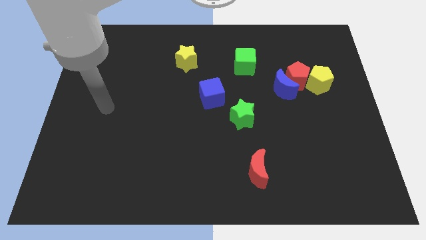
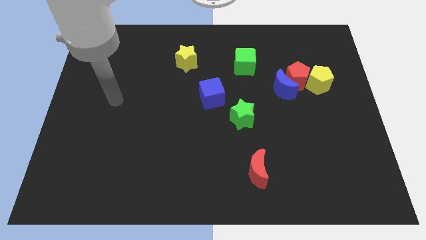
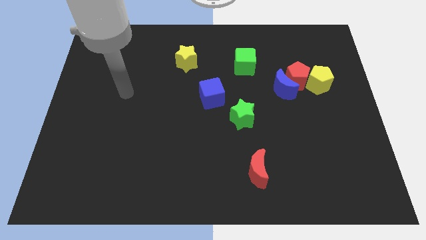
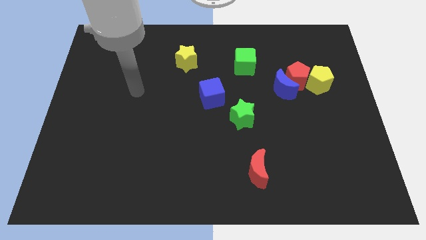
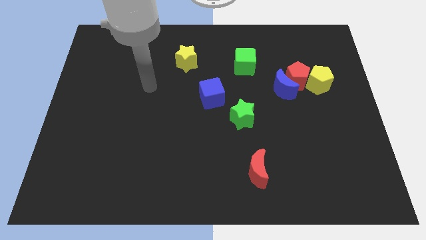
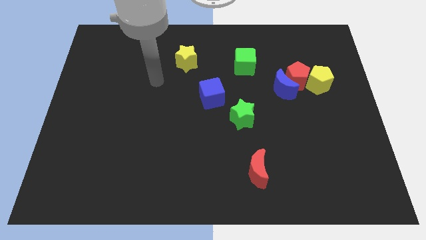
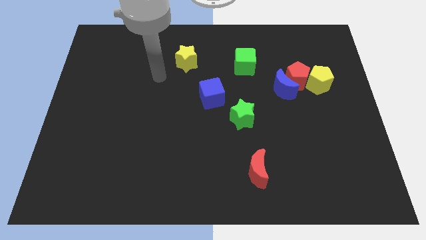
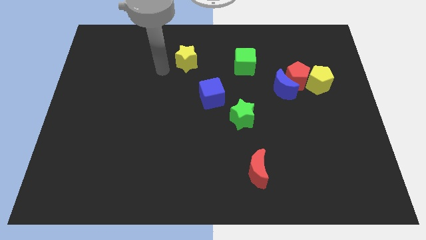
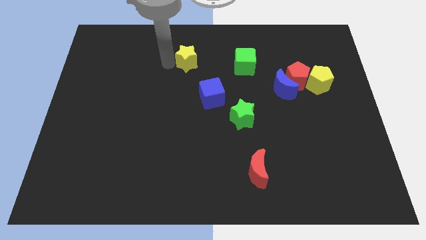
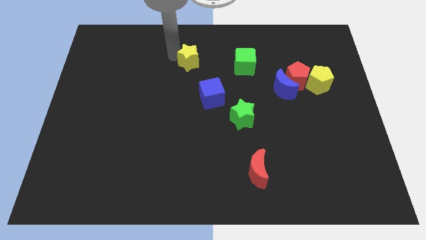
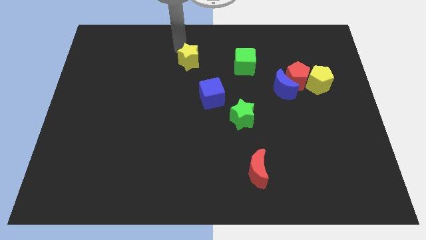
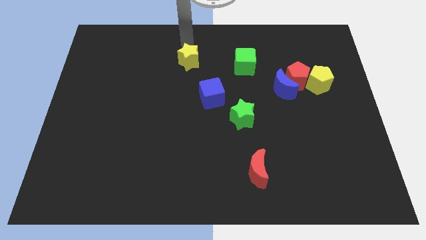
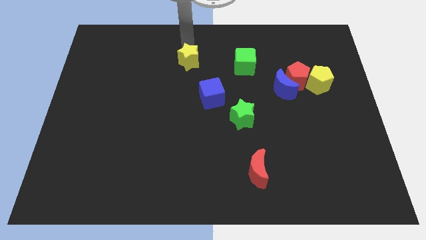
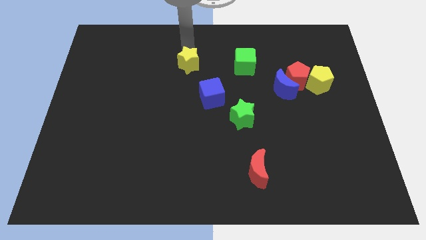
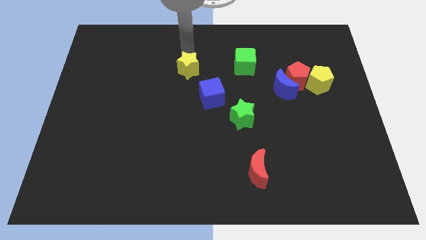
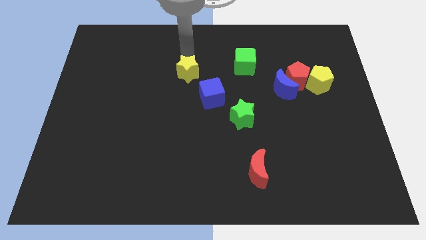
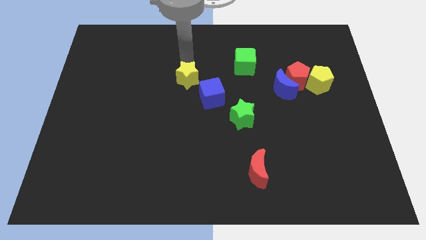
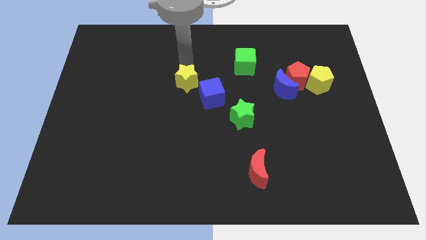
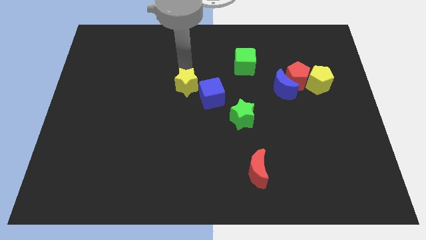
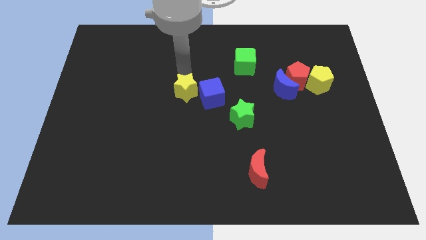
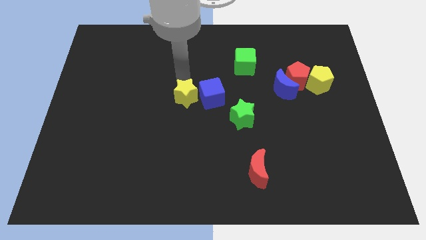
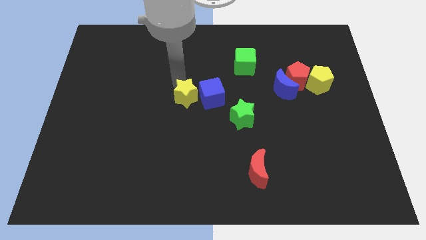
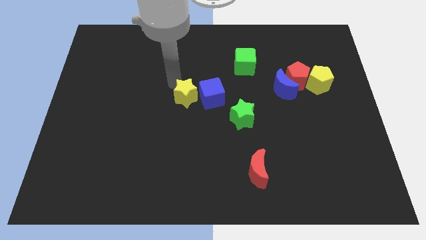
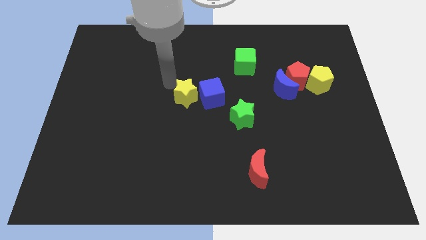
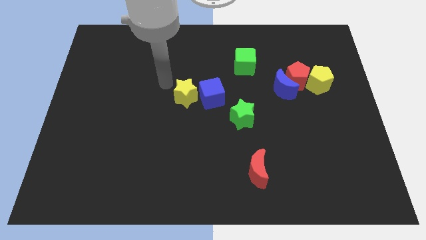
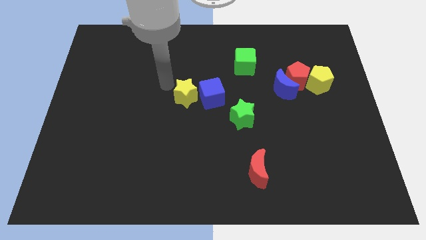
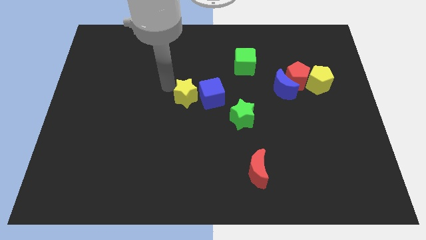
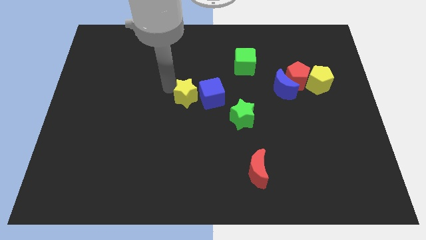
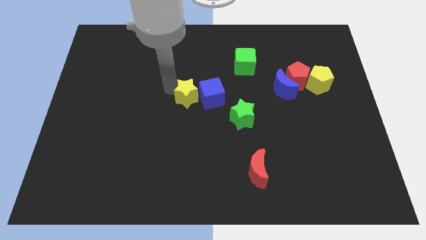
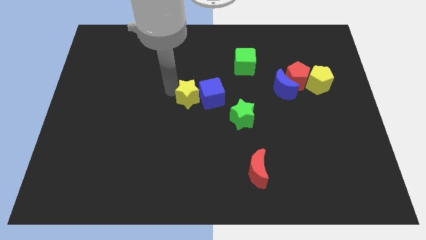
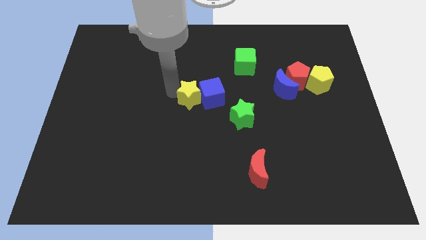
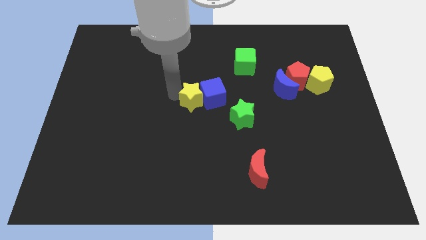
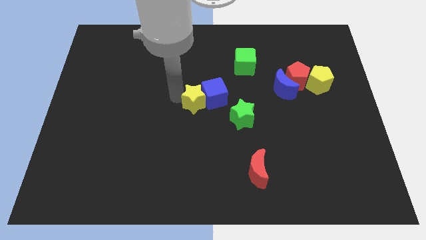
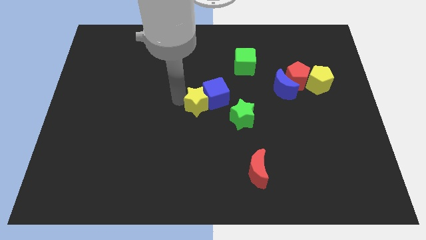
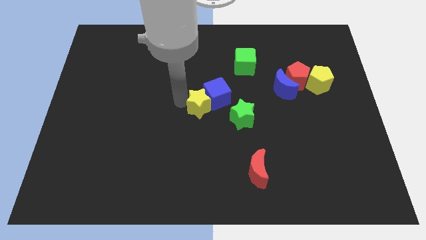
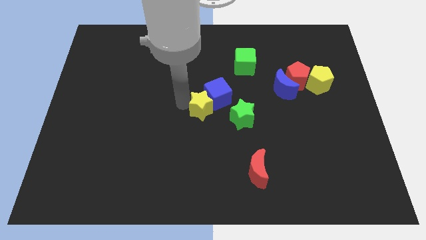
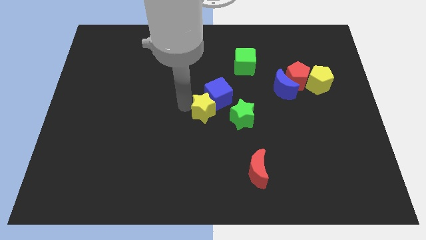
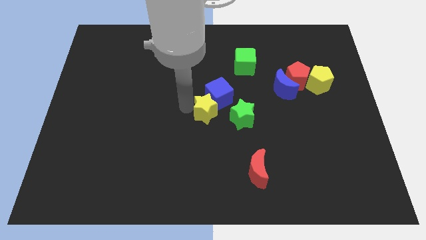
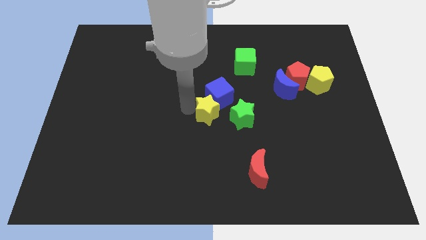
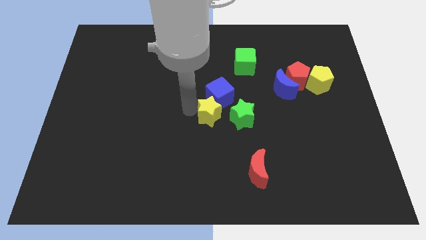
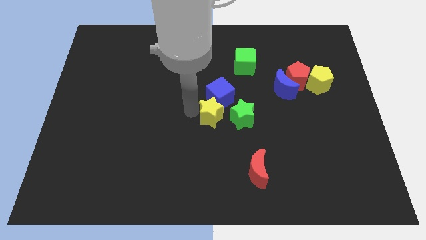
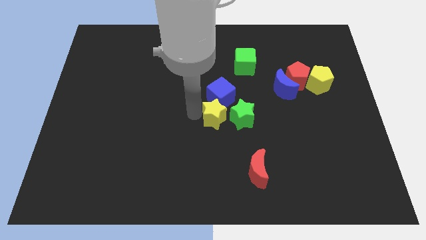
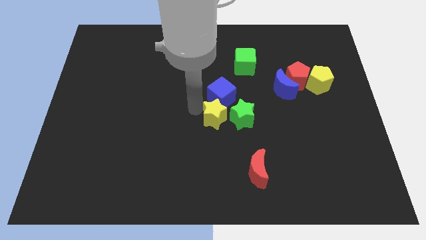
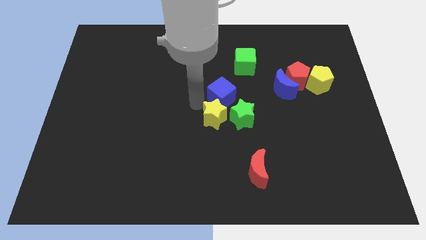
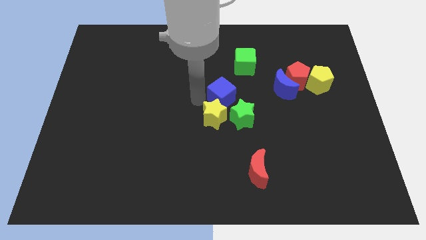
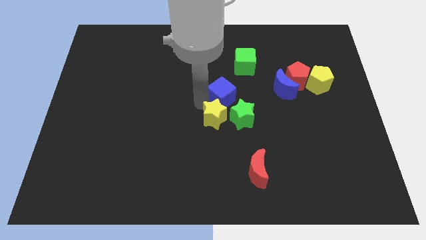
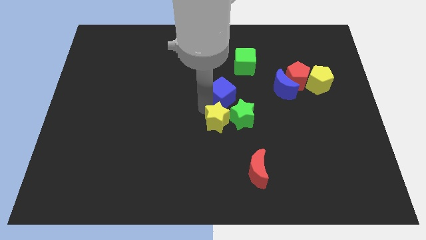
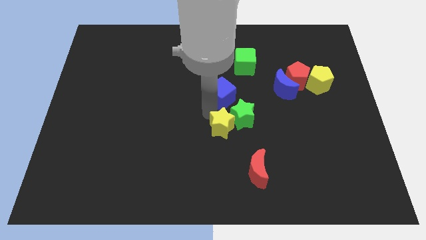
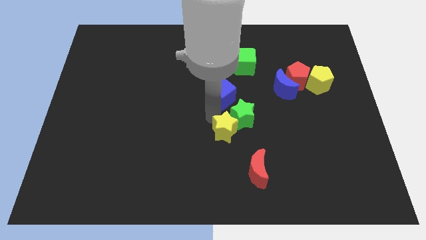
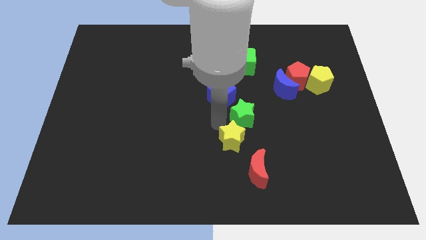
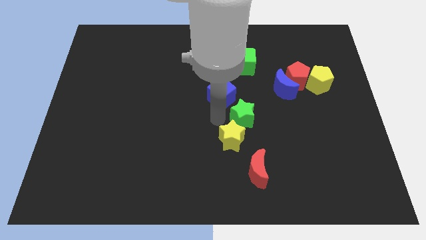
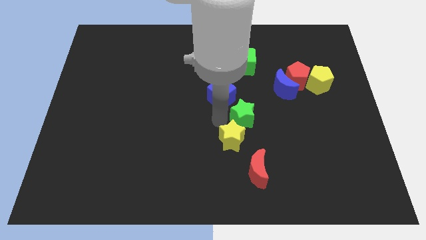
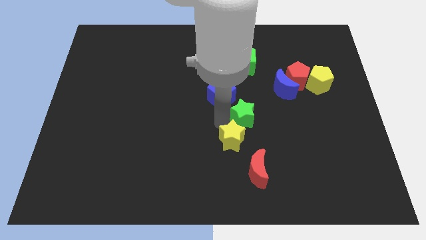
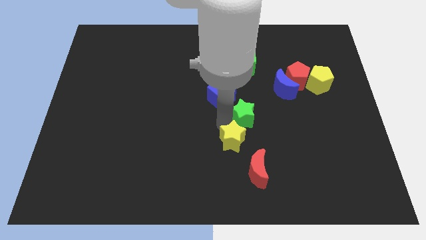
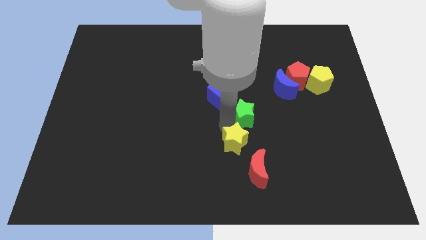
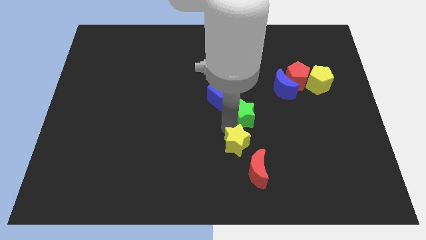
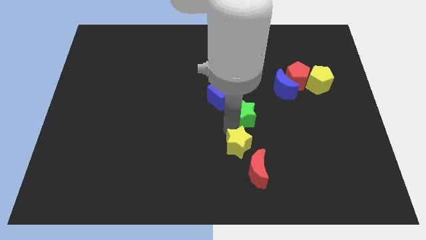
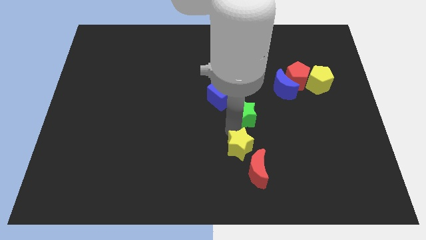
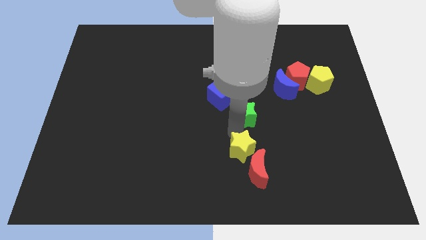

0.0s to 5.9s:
push the yellow star close to the red moon

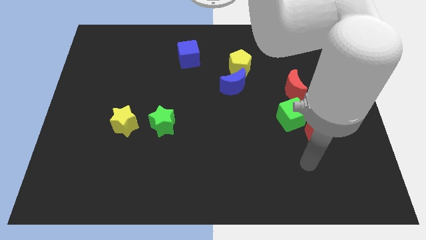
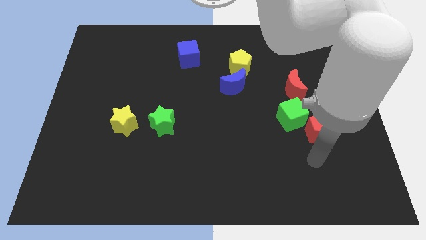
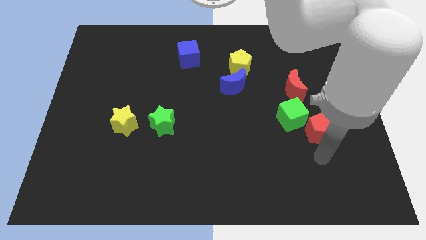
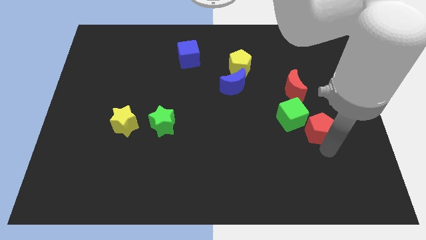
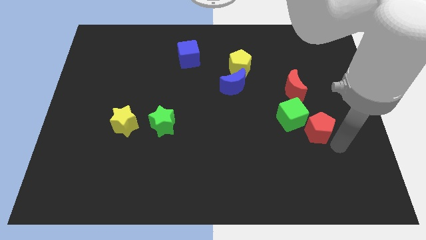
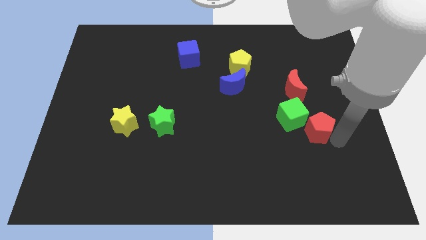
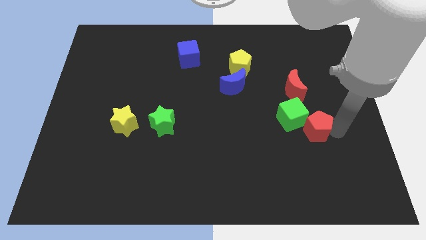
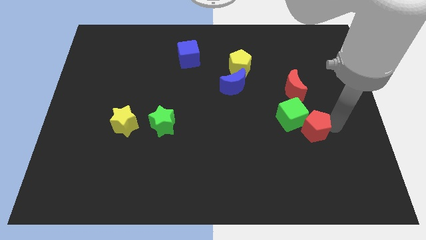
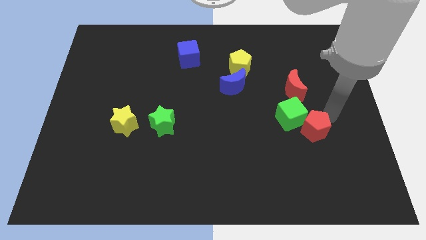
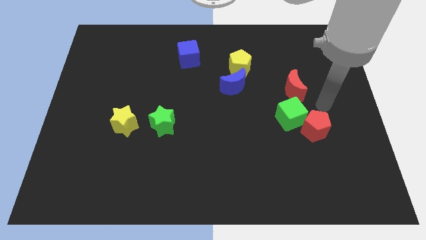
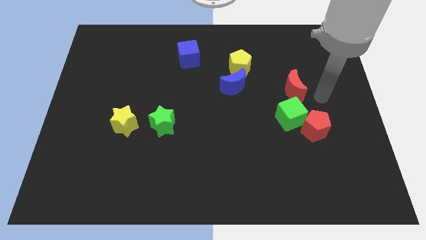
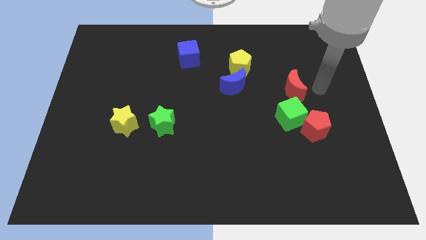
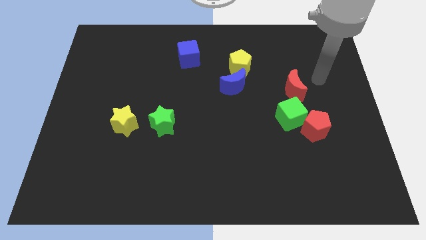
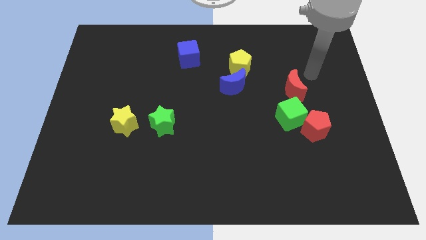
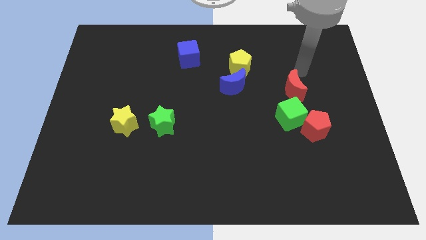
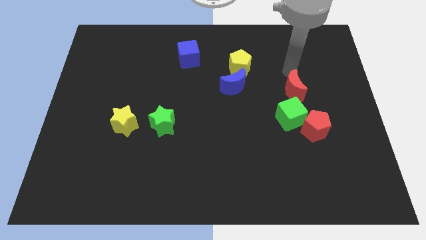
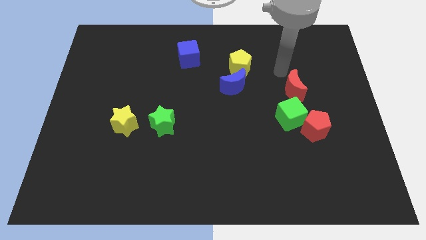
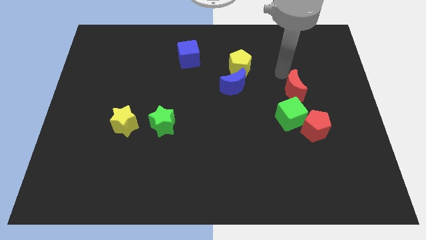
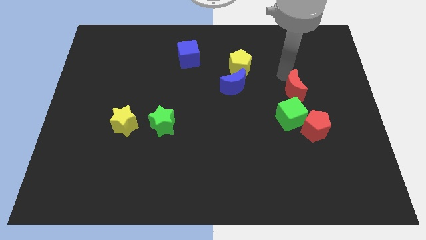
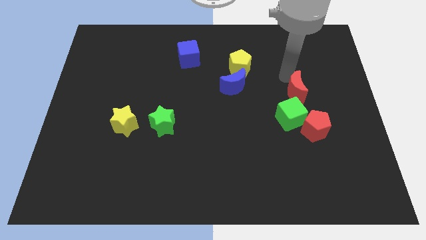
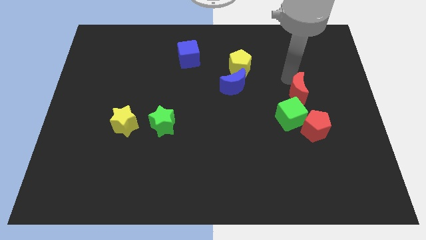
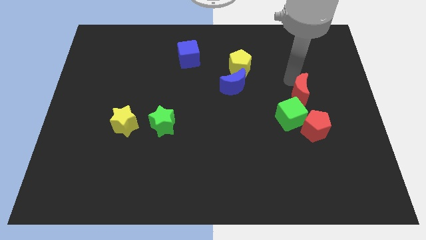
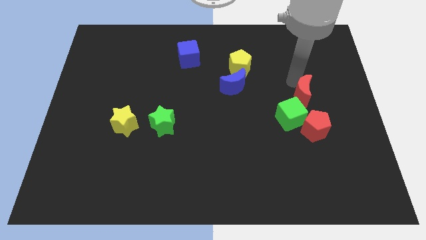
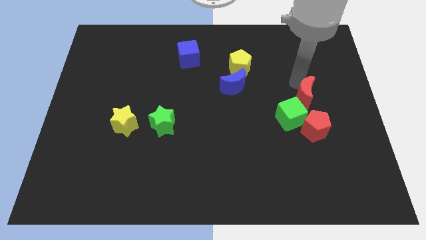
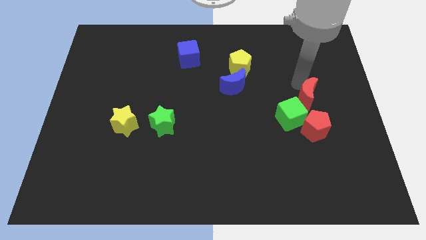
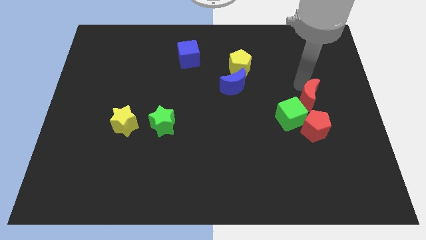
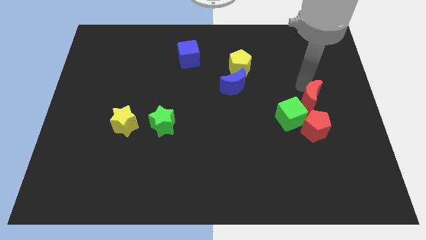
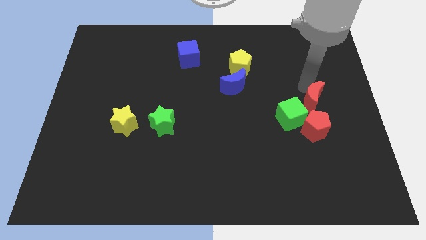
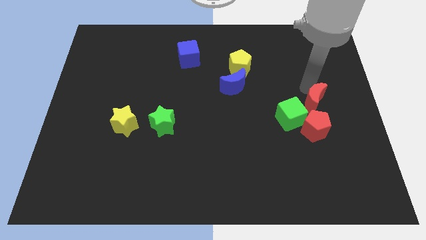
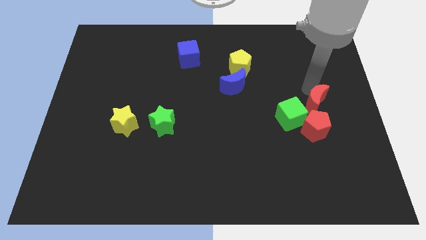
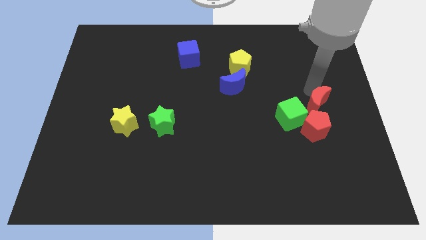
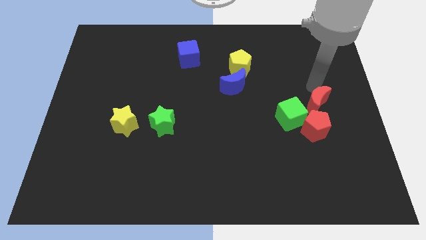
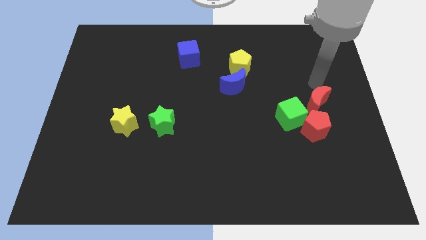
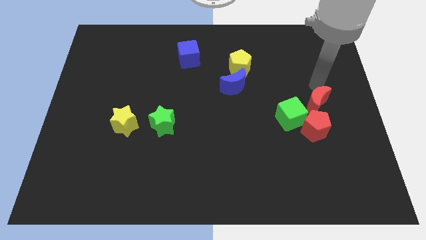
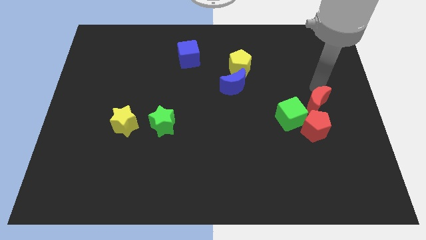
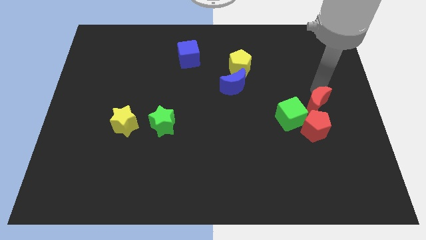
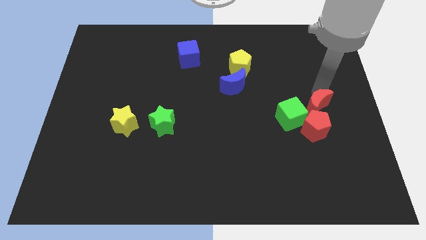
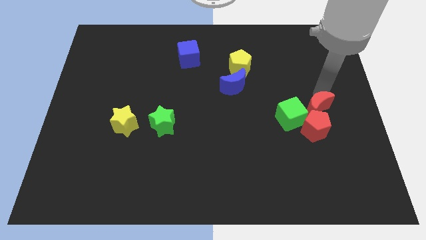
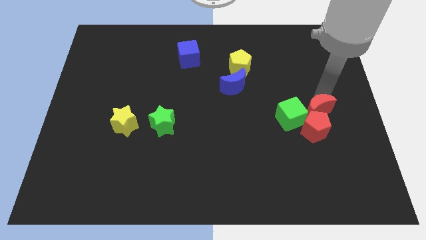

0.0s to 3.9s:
move the red moon to the red pentagon
